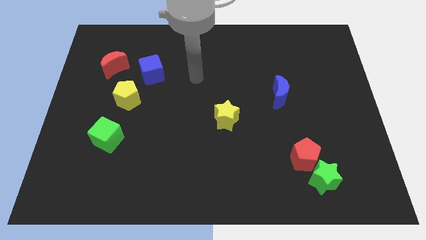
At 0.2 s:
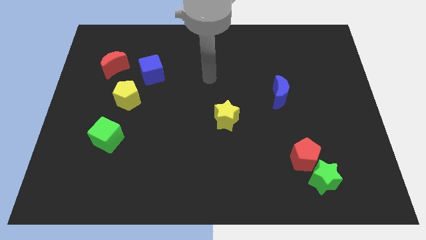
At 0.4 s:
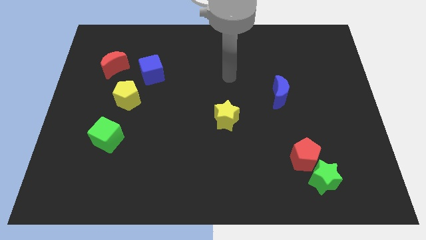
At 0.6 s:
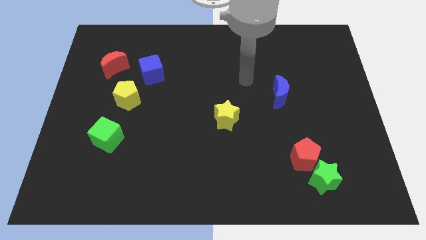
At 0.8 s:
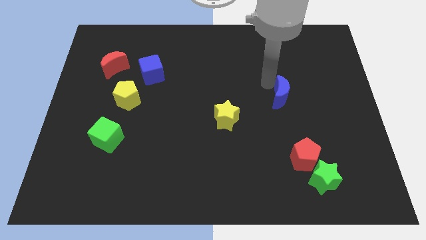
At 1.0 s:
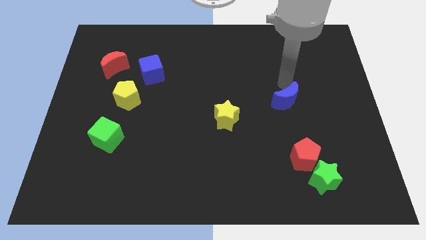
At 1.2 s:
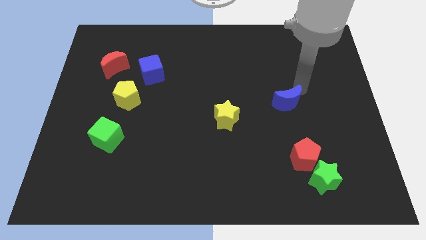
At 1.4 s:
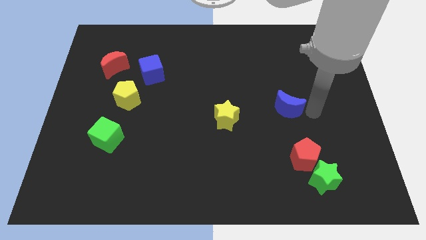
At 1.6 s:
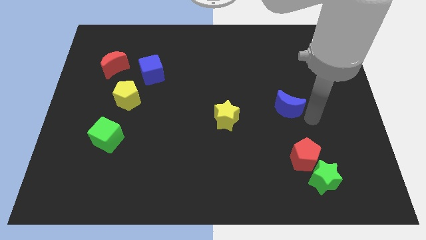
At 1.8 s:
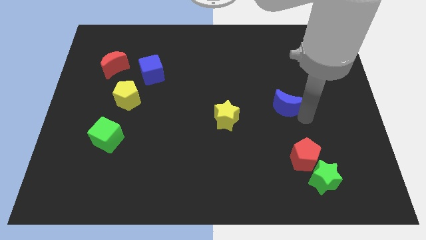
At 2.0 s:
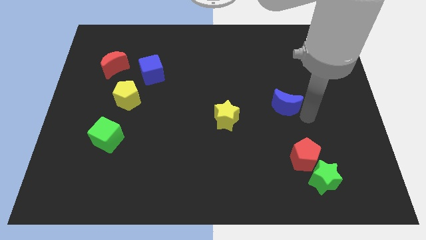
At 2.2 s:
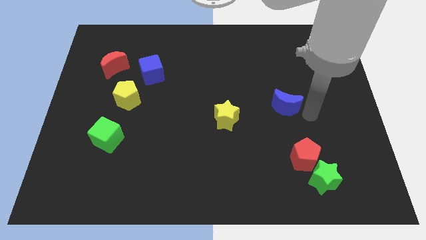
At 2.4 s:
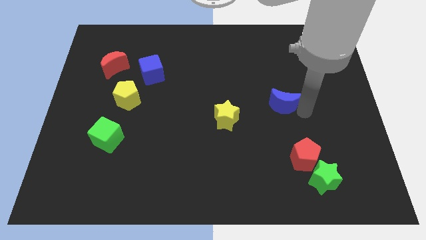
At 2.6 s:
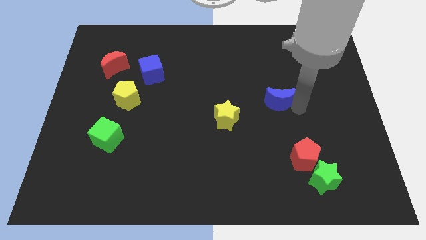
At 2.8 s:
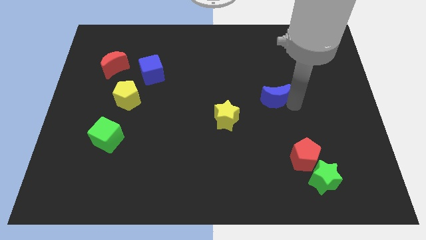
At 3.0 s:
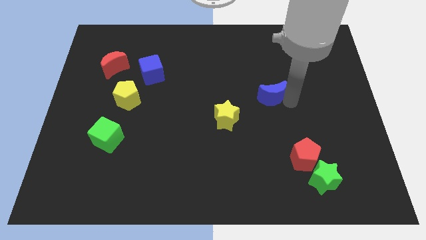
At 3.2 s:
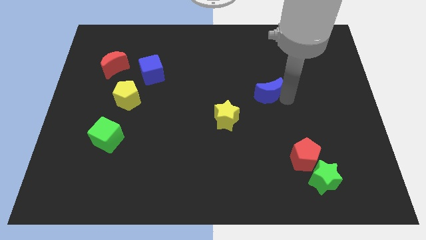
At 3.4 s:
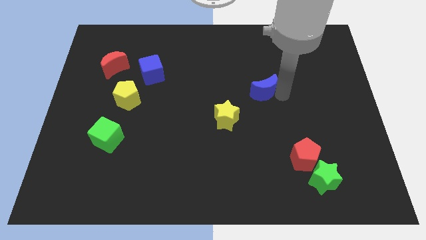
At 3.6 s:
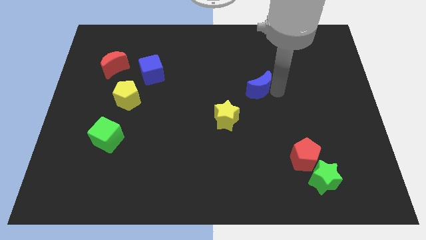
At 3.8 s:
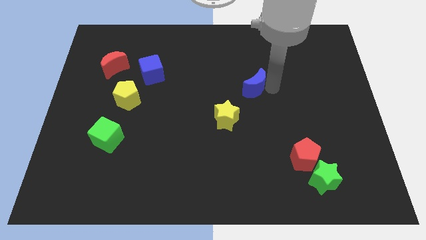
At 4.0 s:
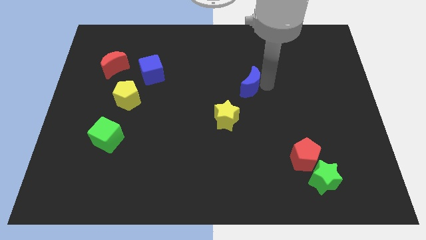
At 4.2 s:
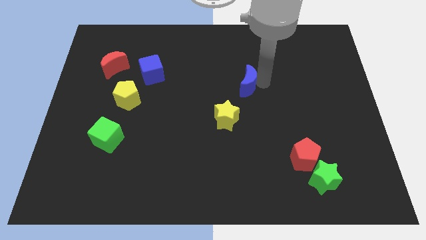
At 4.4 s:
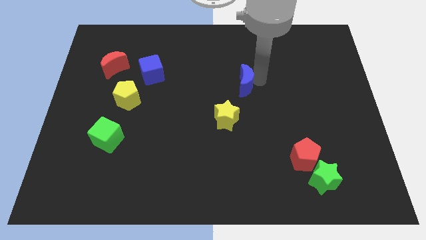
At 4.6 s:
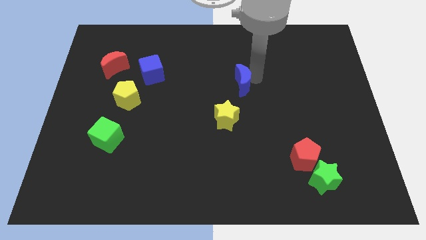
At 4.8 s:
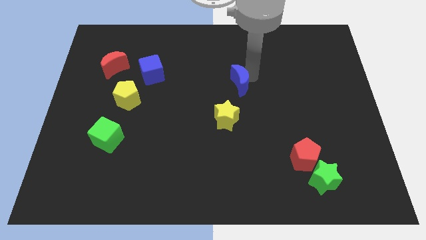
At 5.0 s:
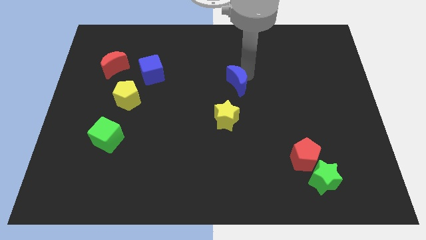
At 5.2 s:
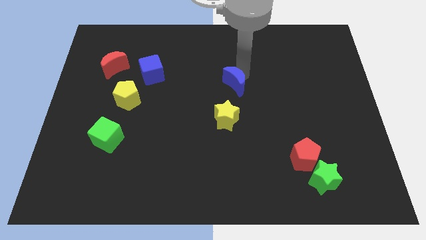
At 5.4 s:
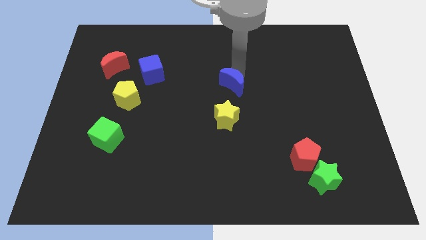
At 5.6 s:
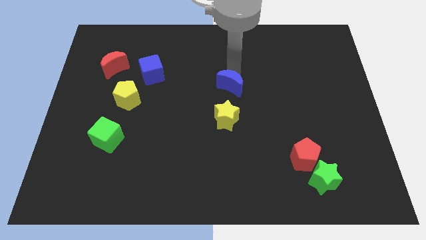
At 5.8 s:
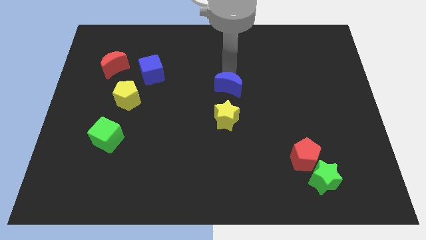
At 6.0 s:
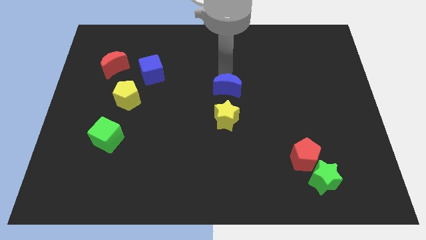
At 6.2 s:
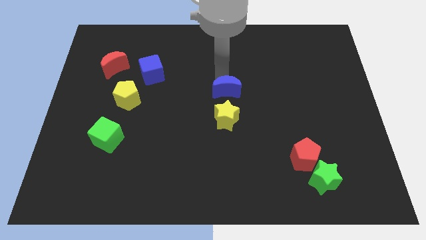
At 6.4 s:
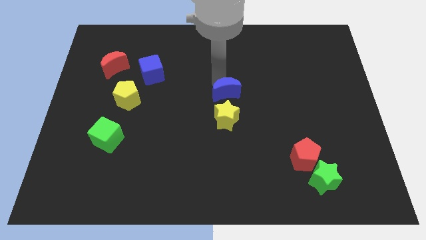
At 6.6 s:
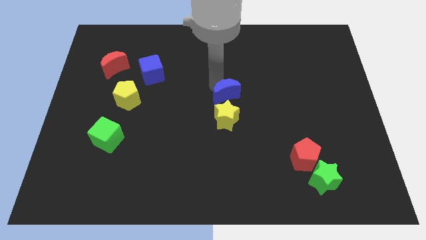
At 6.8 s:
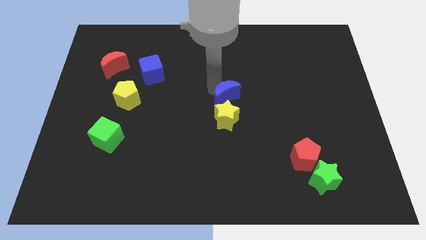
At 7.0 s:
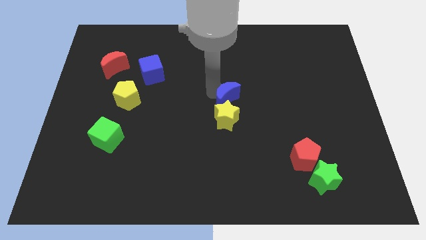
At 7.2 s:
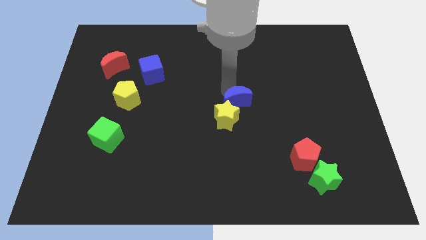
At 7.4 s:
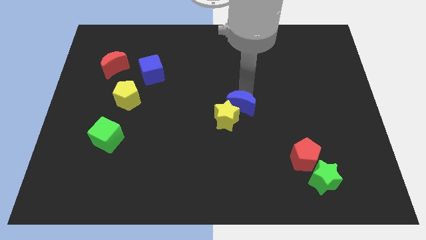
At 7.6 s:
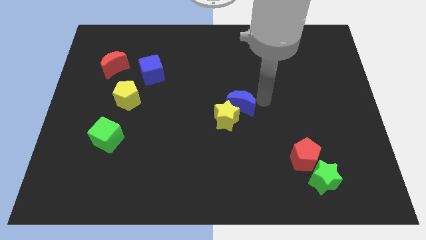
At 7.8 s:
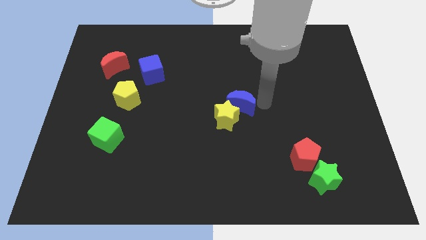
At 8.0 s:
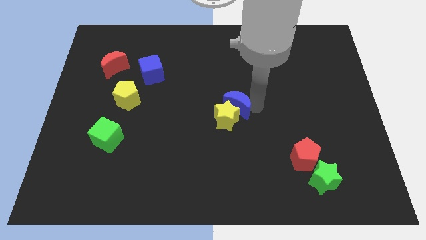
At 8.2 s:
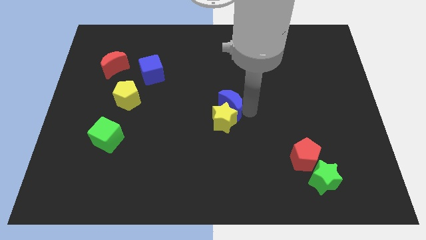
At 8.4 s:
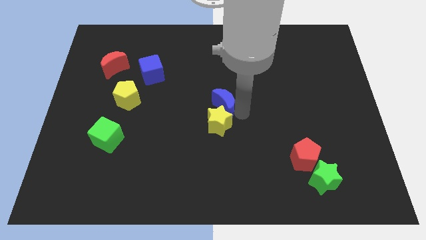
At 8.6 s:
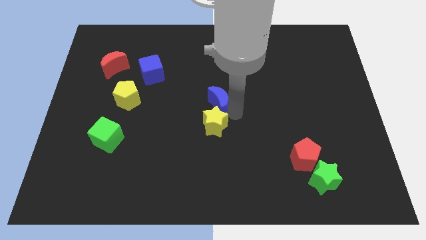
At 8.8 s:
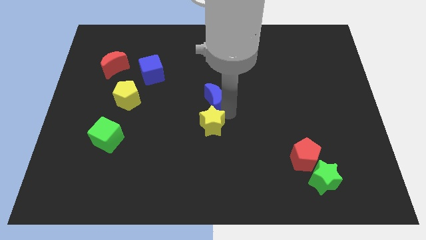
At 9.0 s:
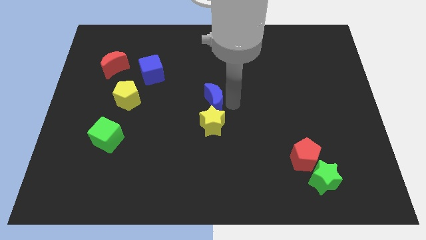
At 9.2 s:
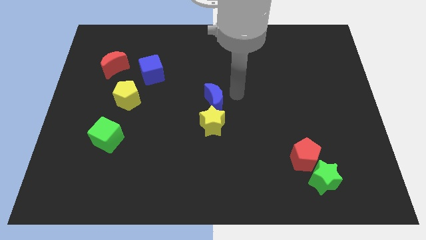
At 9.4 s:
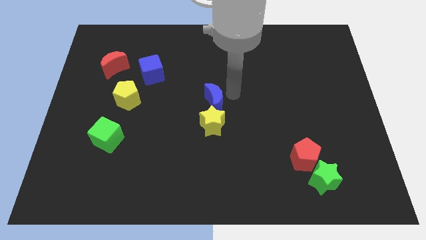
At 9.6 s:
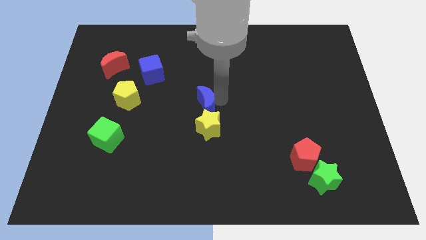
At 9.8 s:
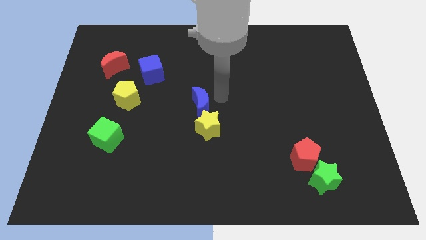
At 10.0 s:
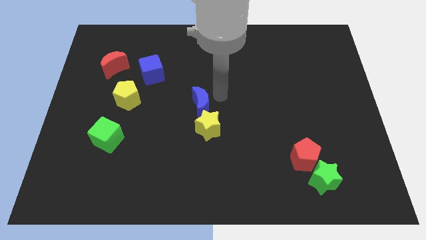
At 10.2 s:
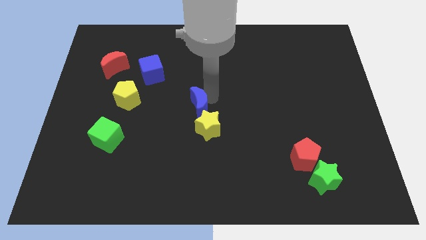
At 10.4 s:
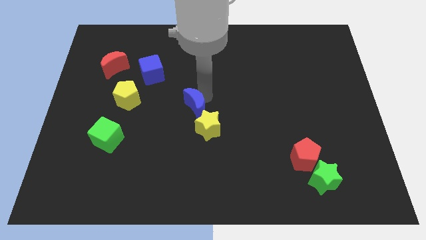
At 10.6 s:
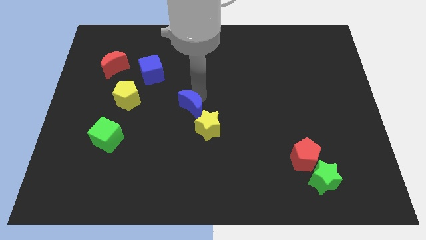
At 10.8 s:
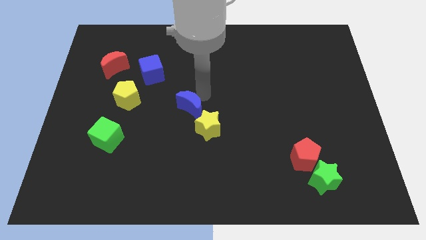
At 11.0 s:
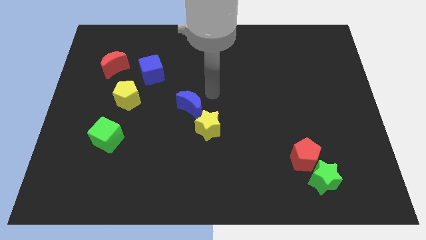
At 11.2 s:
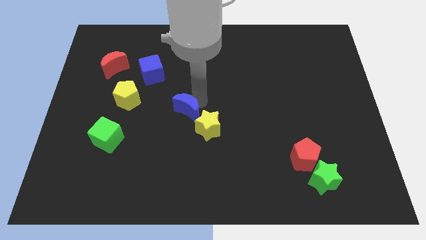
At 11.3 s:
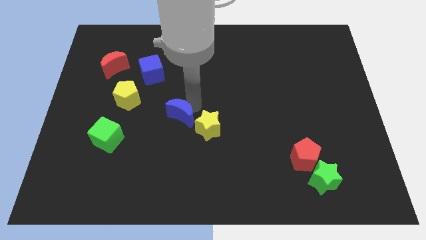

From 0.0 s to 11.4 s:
put the blue moon left of the yellow star

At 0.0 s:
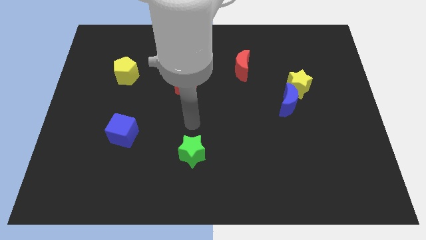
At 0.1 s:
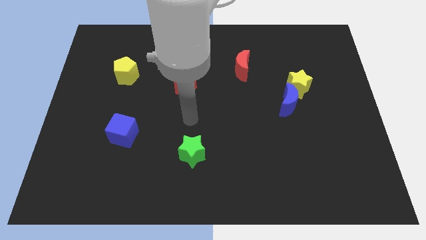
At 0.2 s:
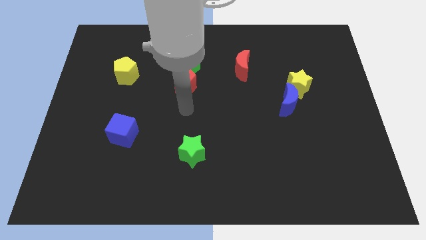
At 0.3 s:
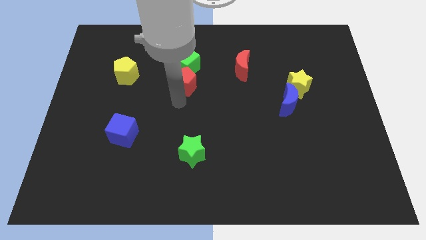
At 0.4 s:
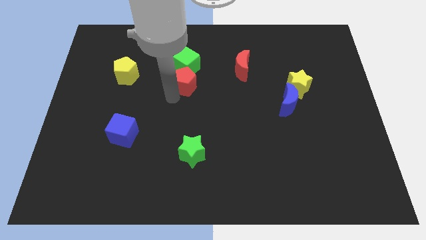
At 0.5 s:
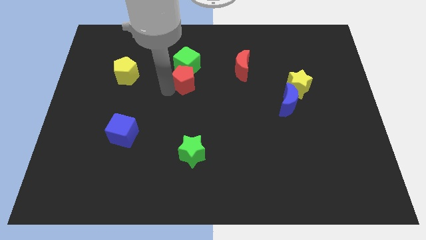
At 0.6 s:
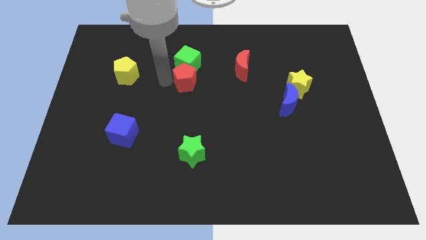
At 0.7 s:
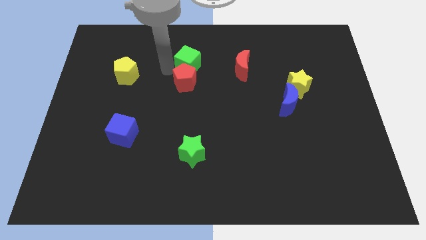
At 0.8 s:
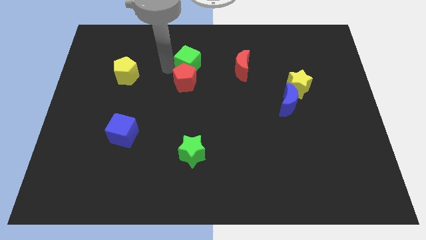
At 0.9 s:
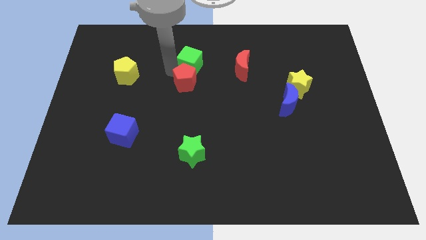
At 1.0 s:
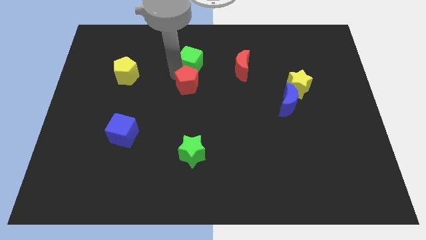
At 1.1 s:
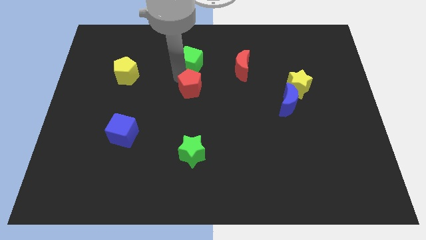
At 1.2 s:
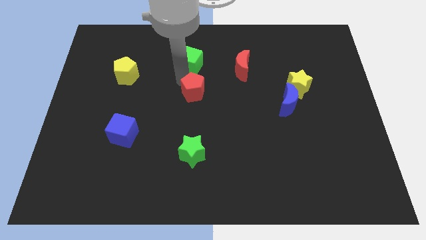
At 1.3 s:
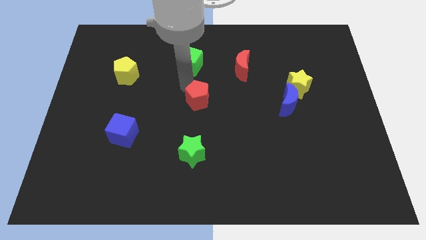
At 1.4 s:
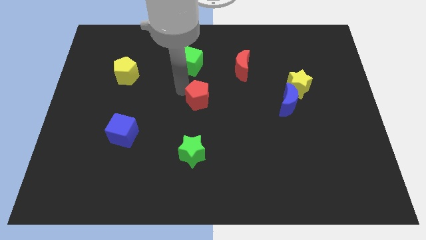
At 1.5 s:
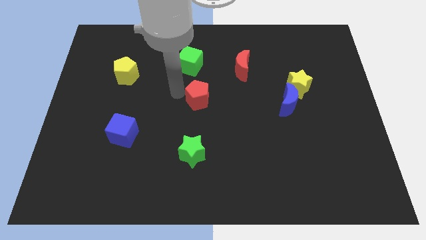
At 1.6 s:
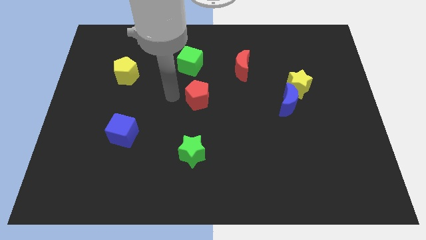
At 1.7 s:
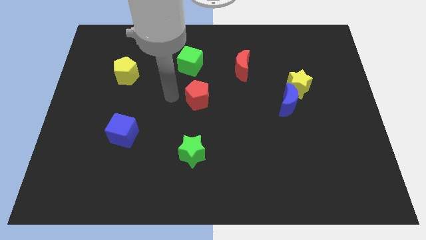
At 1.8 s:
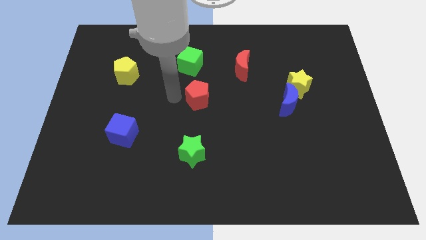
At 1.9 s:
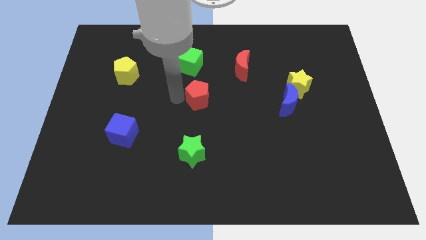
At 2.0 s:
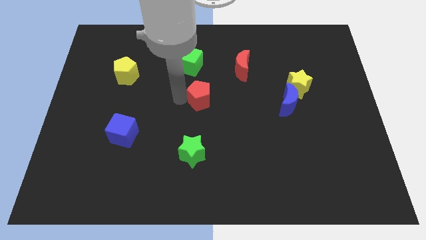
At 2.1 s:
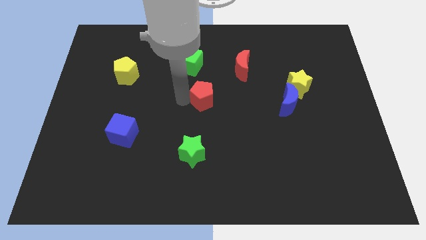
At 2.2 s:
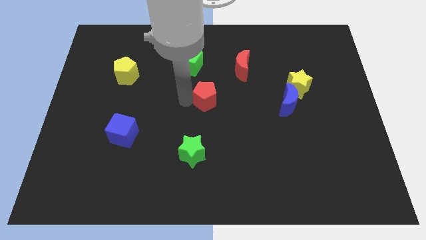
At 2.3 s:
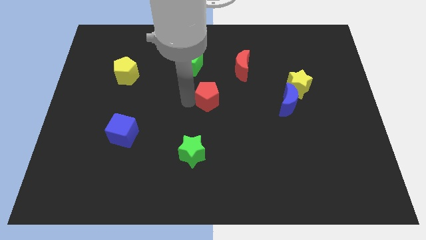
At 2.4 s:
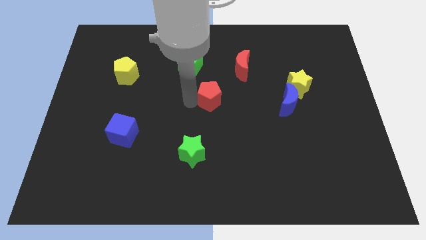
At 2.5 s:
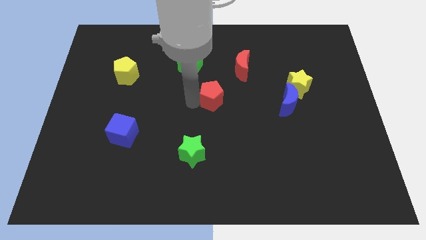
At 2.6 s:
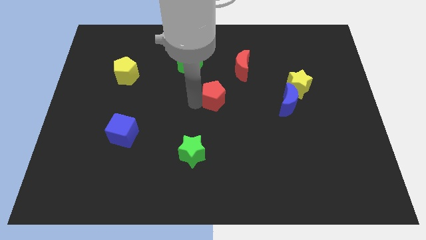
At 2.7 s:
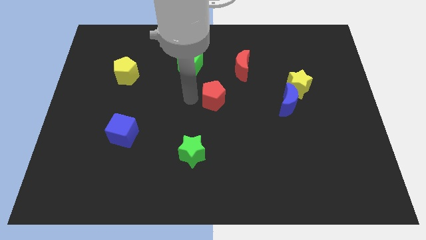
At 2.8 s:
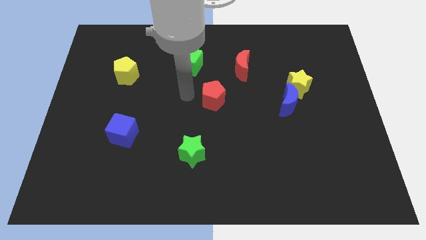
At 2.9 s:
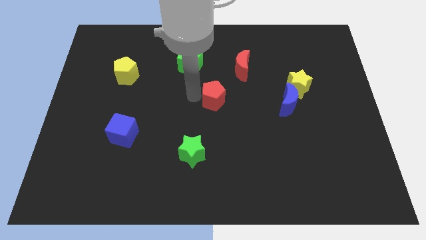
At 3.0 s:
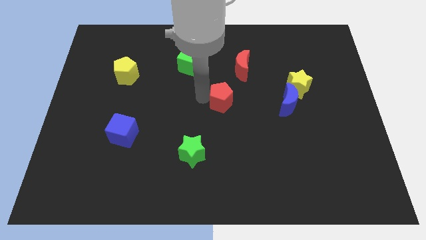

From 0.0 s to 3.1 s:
push the red pentagon to the left side of the blue moon
